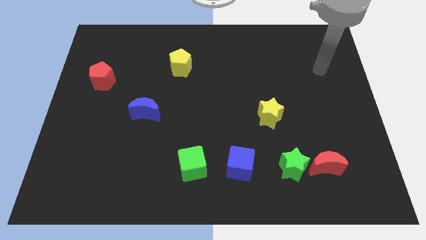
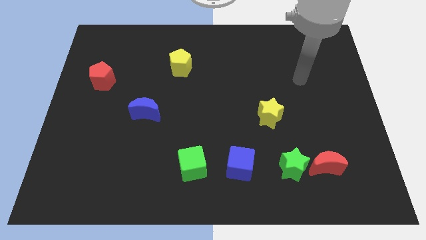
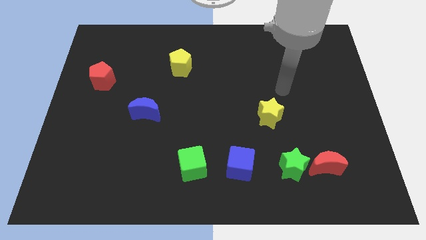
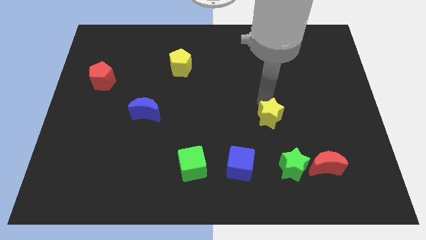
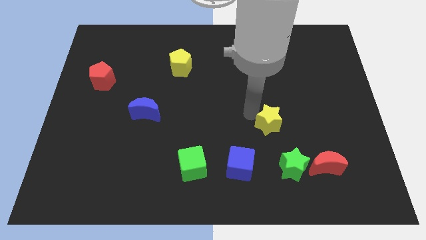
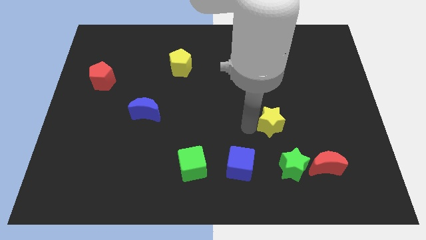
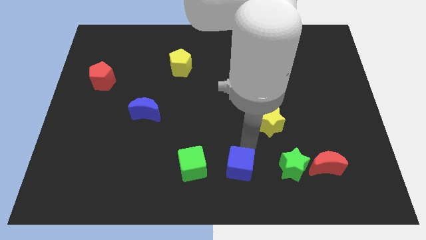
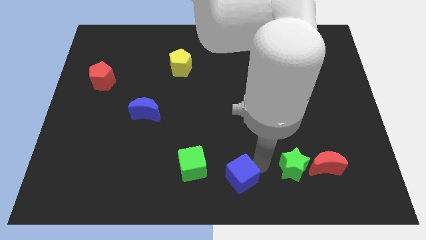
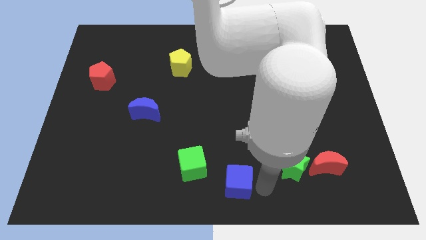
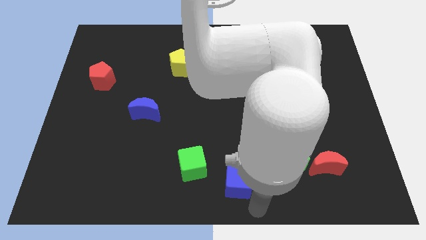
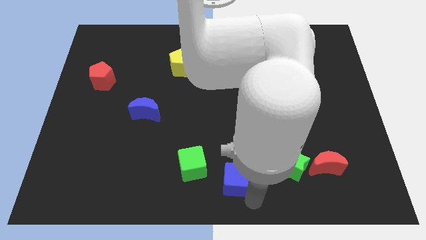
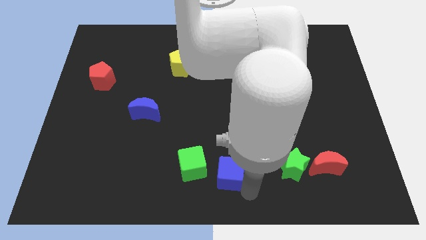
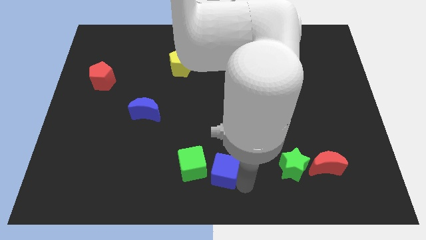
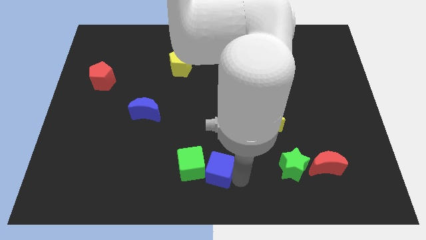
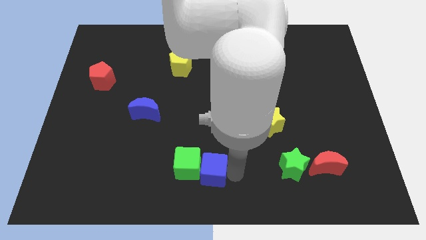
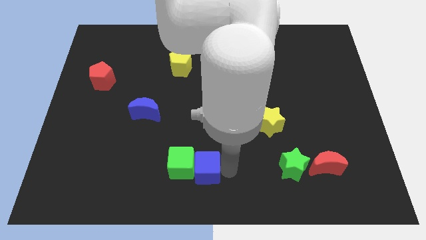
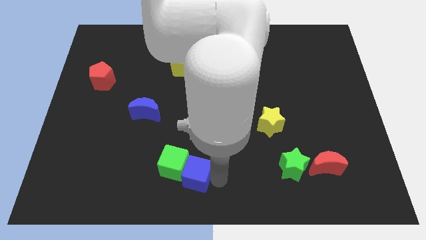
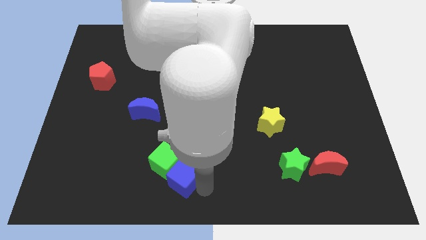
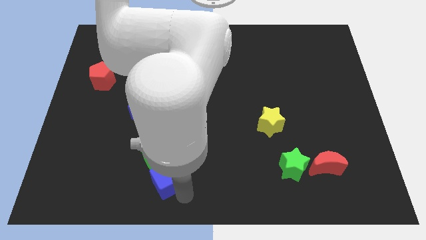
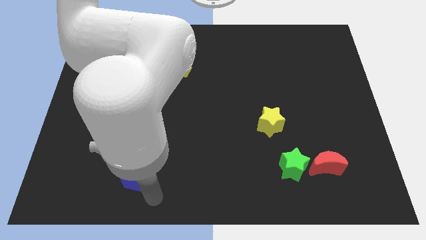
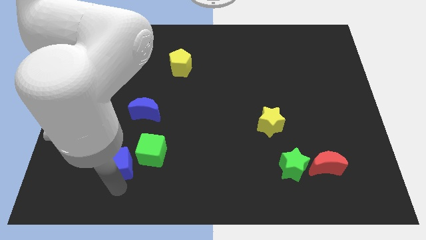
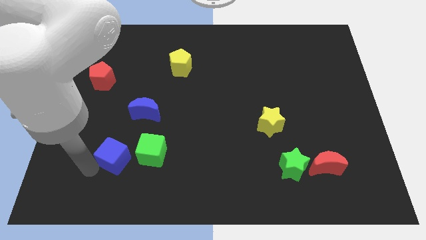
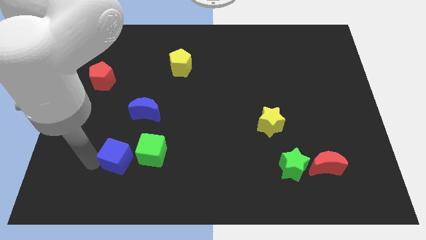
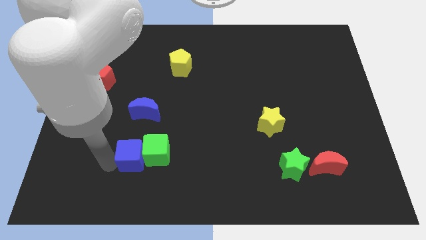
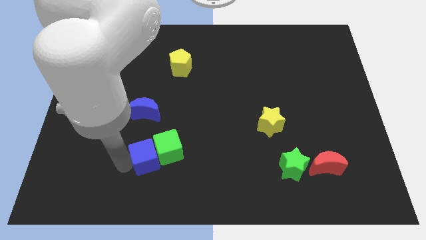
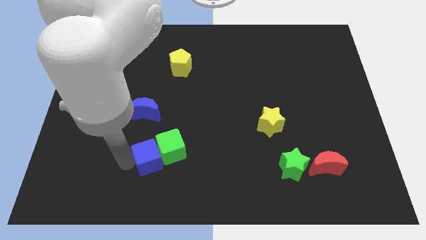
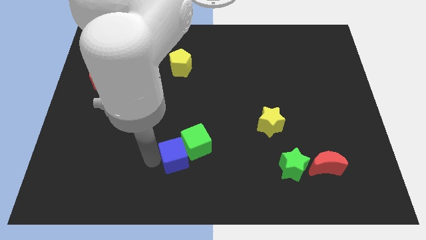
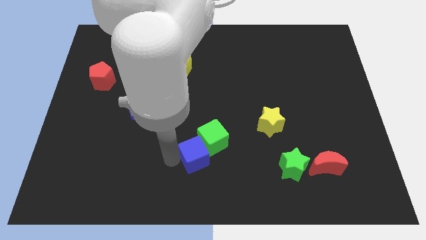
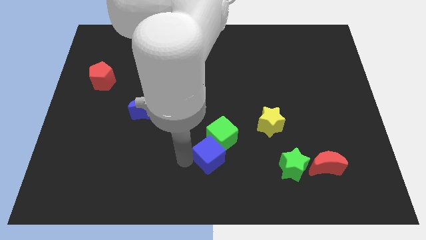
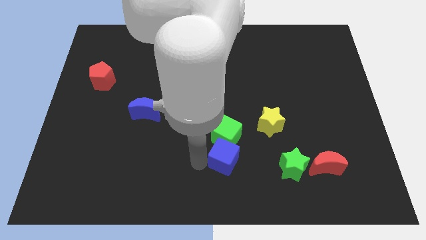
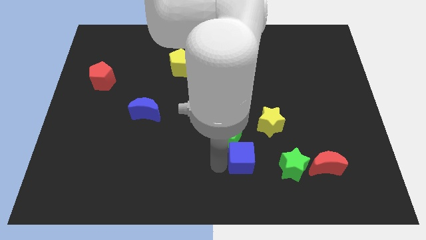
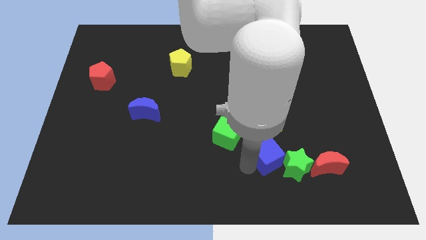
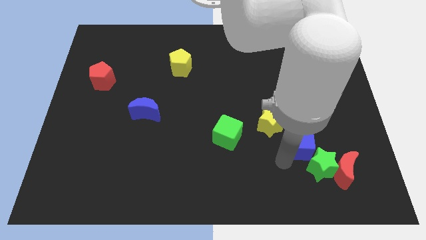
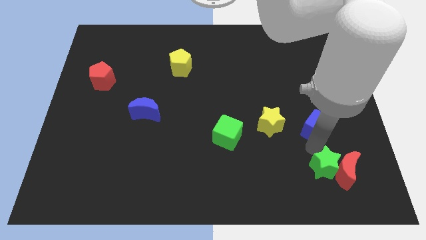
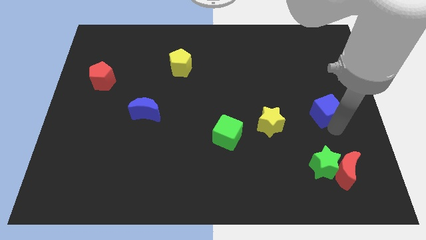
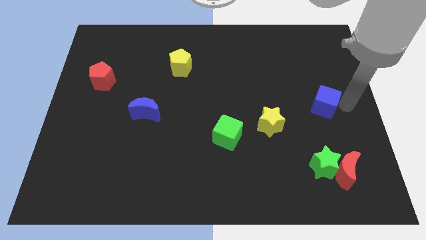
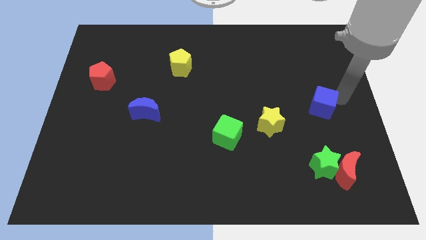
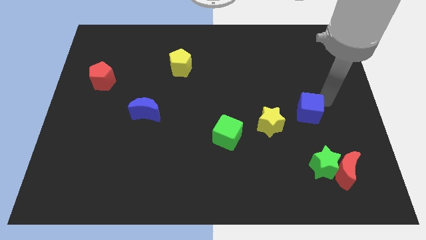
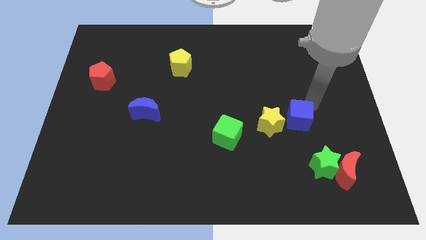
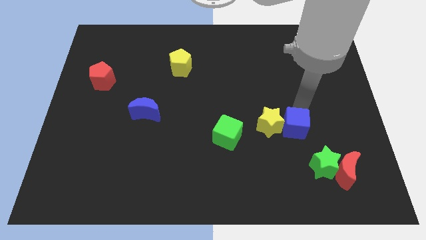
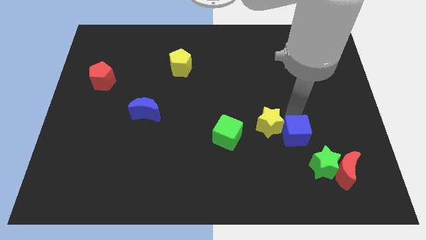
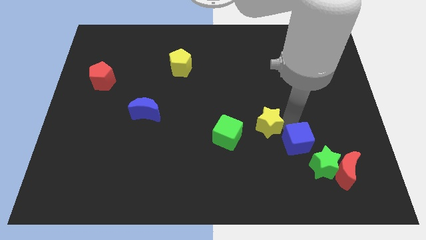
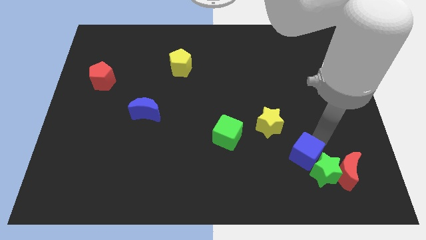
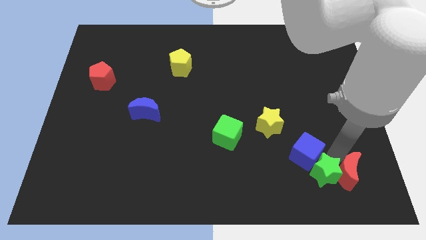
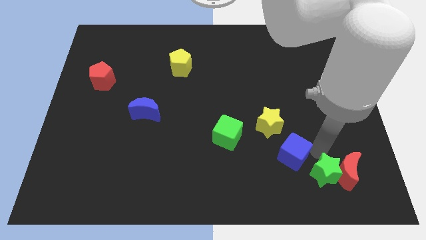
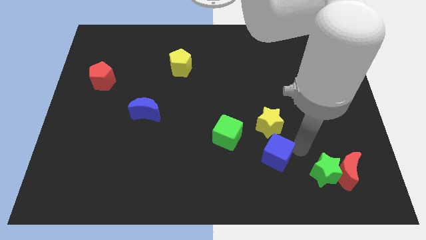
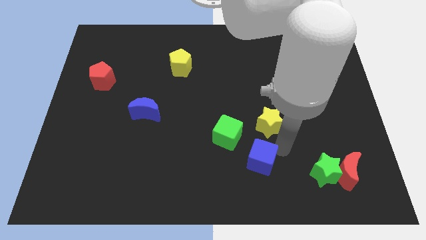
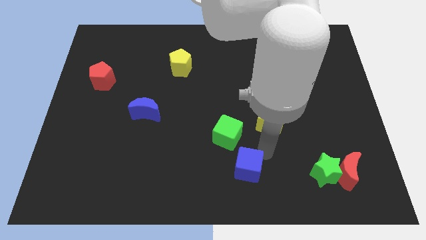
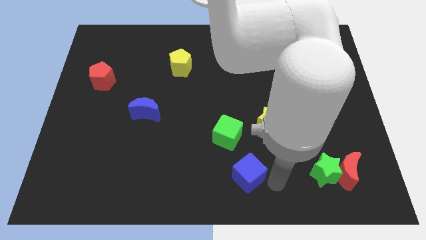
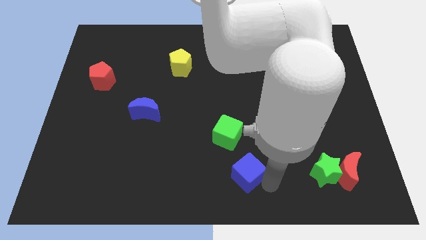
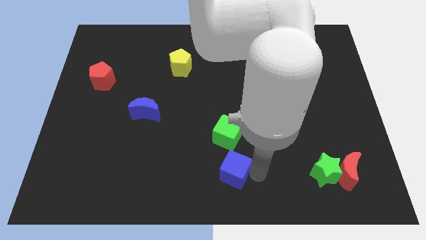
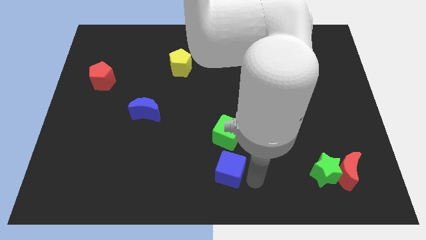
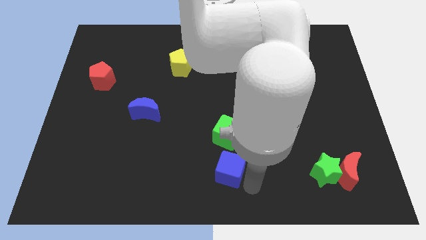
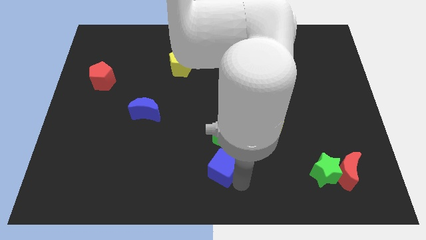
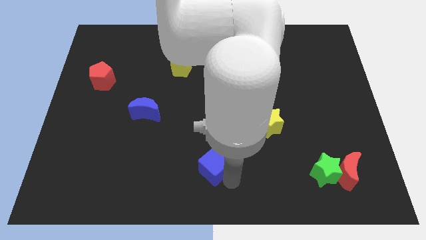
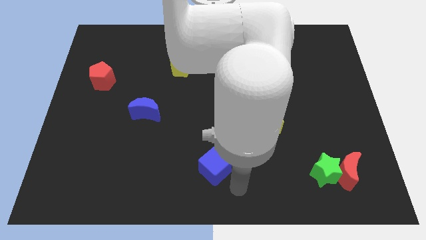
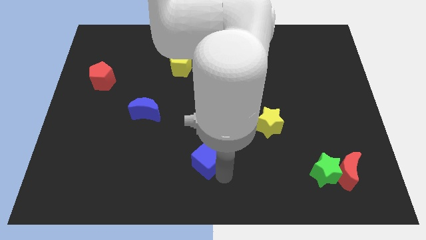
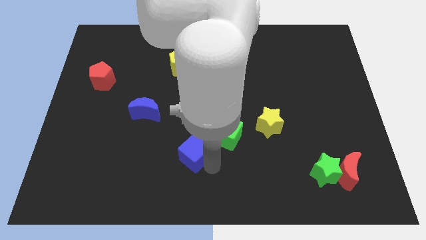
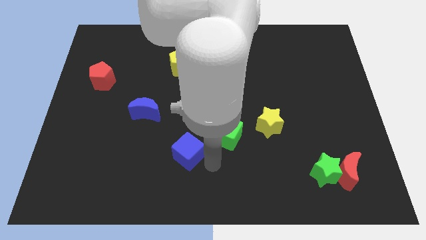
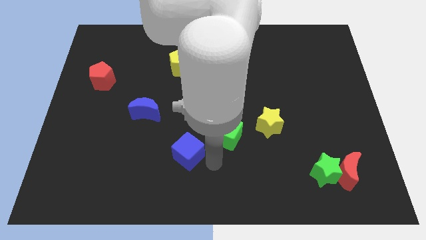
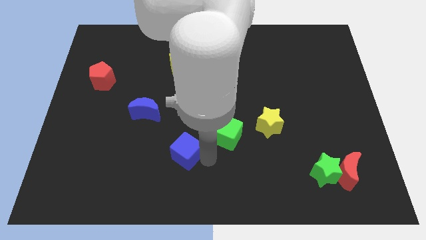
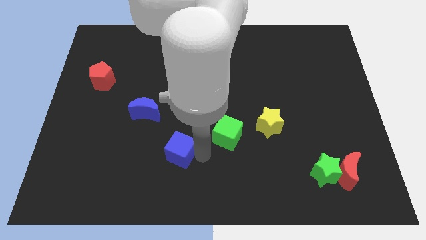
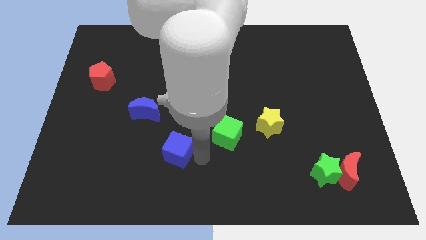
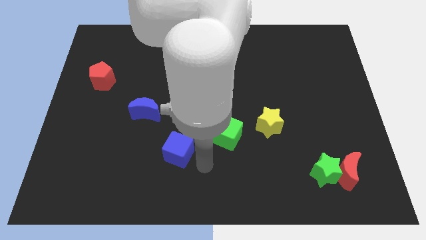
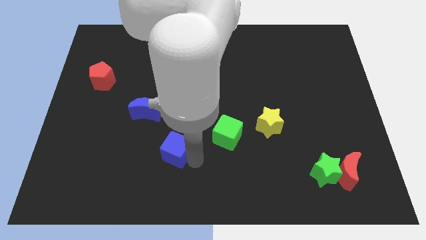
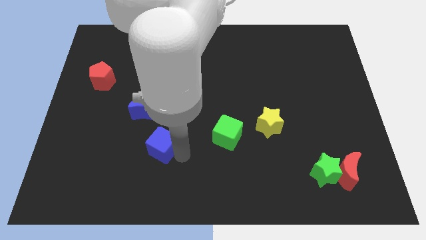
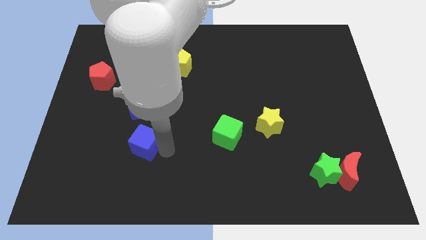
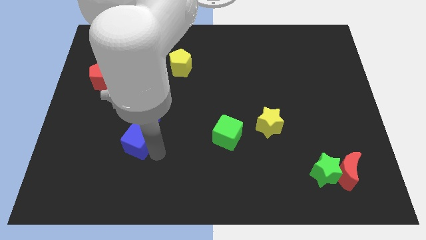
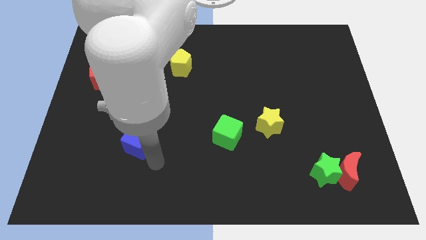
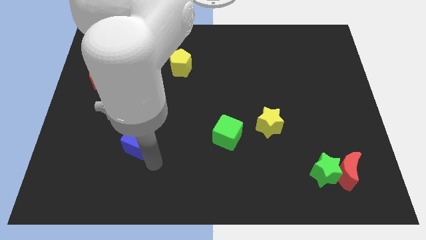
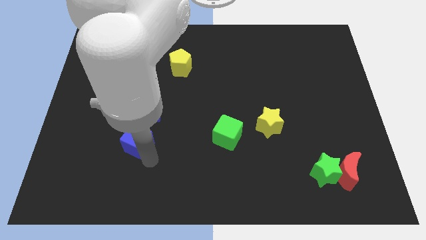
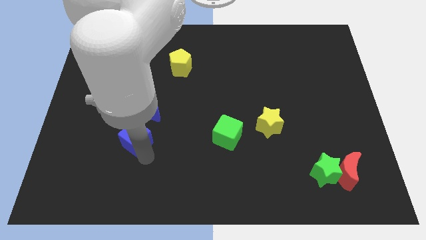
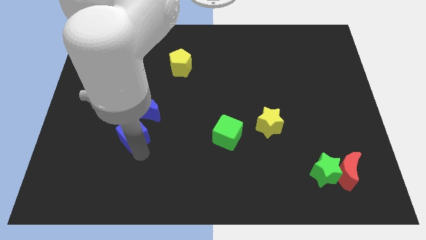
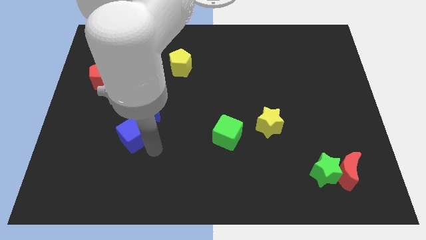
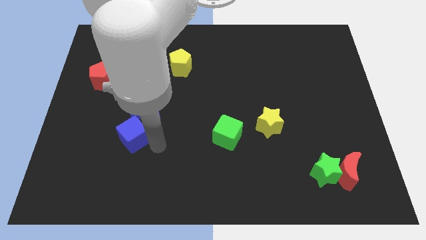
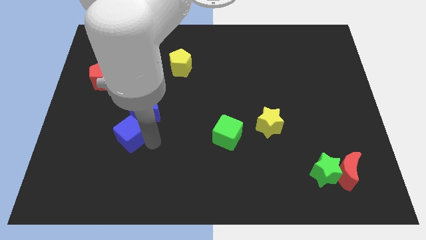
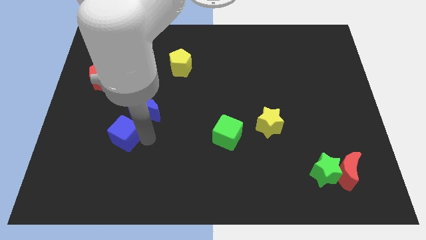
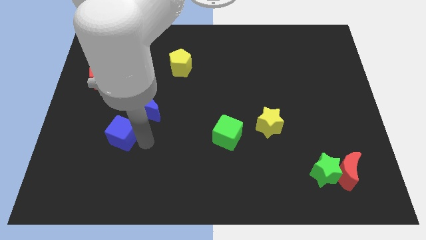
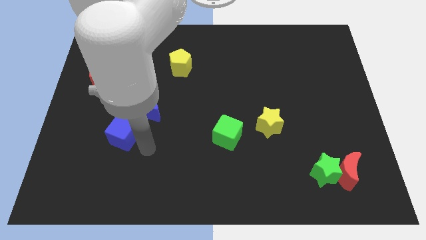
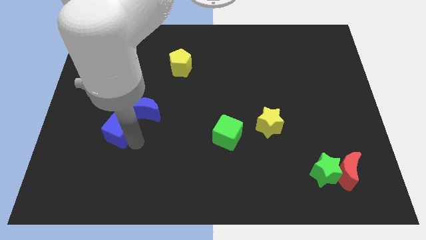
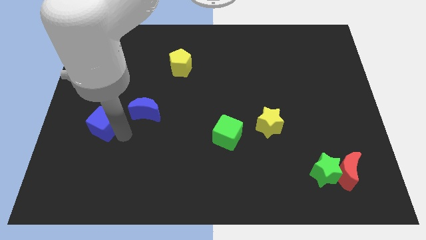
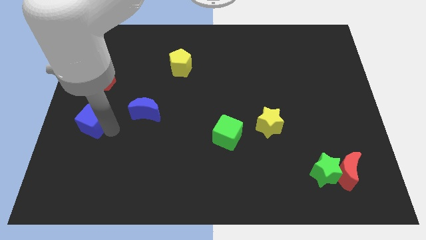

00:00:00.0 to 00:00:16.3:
put the blue cube to the left side of the board
